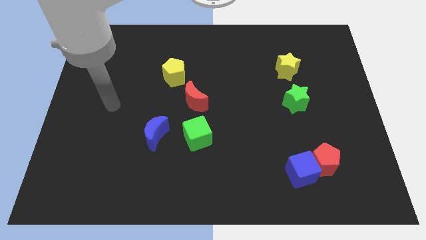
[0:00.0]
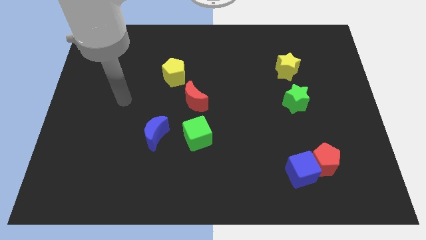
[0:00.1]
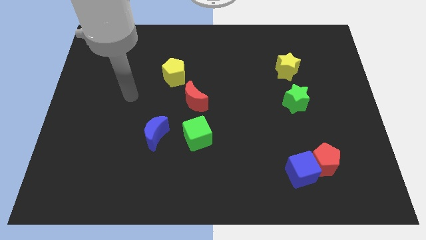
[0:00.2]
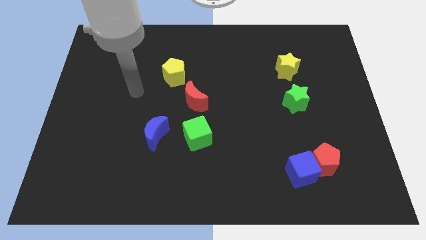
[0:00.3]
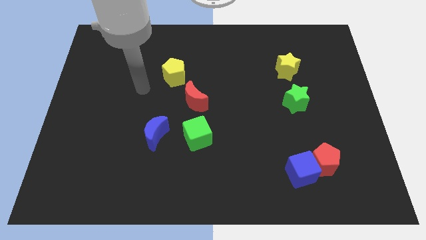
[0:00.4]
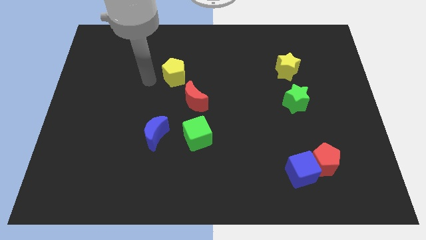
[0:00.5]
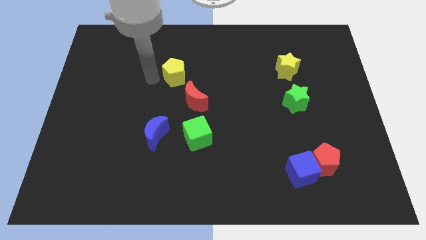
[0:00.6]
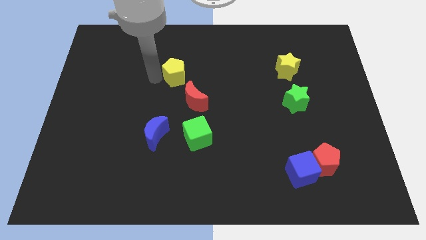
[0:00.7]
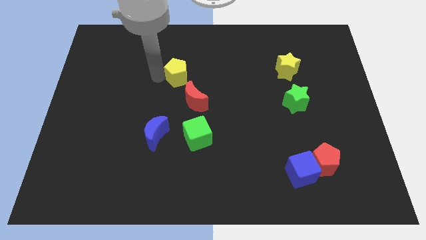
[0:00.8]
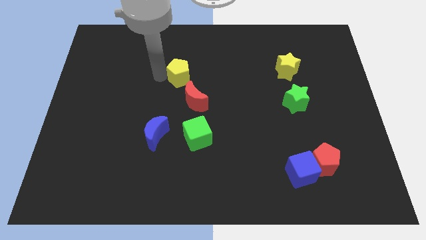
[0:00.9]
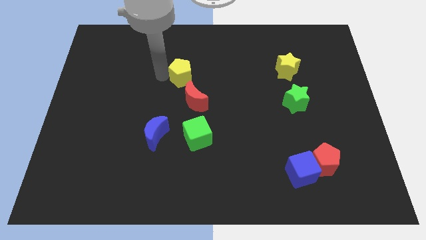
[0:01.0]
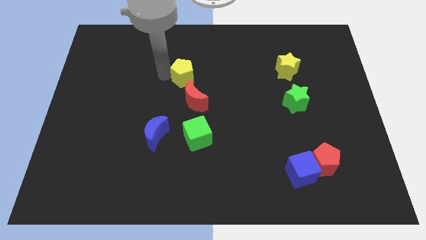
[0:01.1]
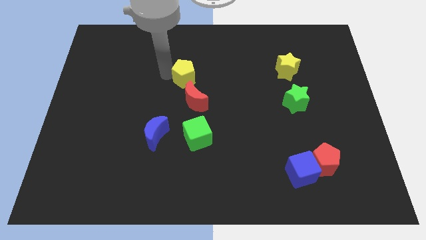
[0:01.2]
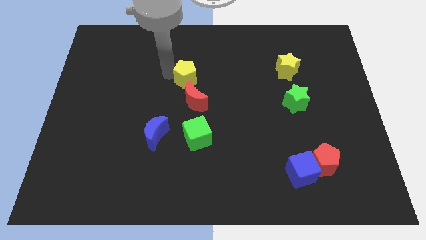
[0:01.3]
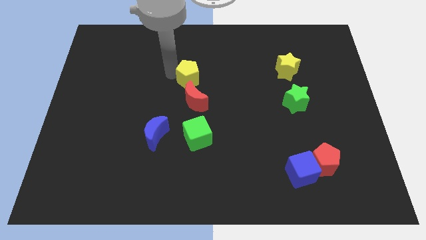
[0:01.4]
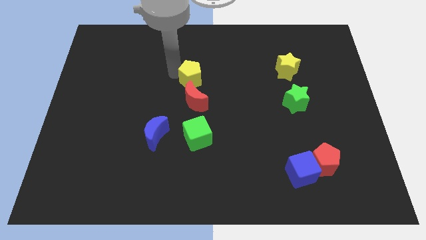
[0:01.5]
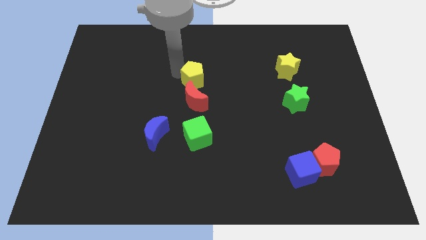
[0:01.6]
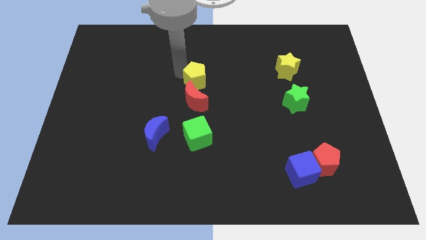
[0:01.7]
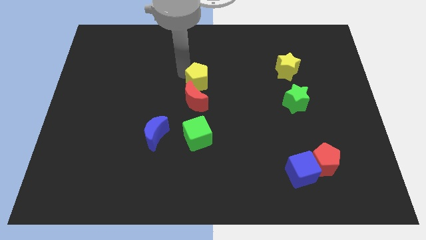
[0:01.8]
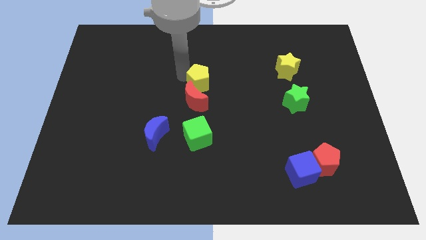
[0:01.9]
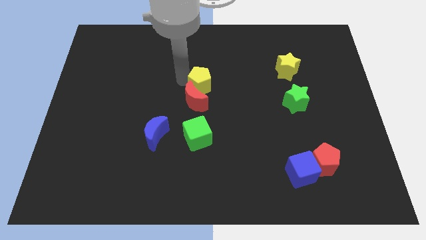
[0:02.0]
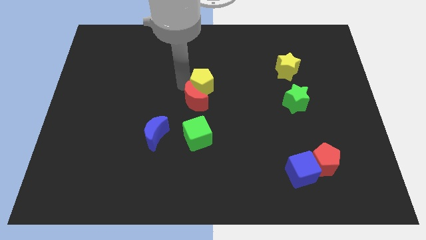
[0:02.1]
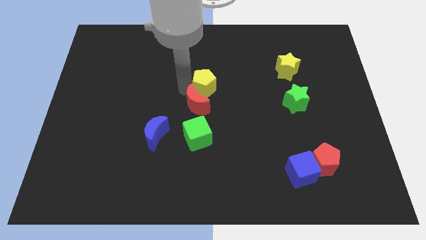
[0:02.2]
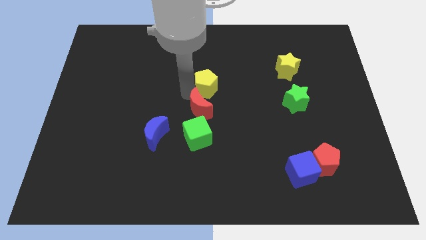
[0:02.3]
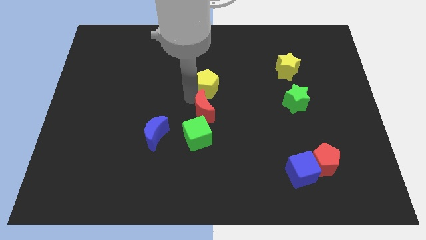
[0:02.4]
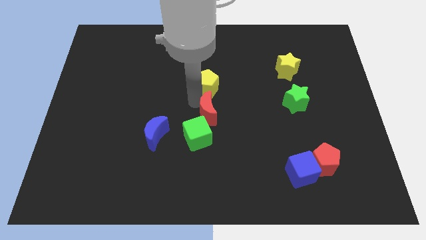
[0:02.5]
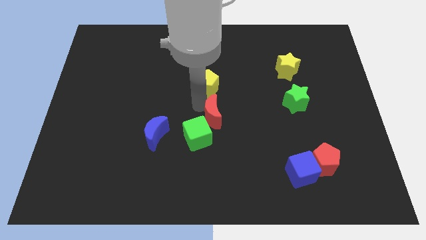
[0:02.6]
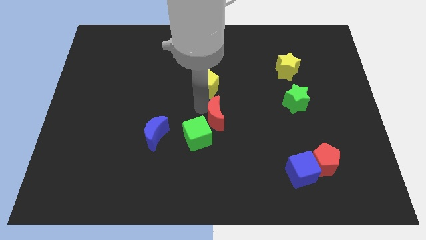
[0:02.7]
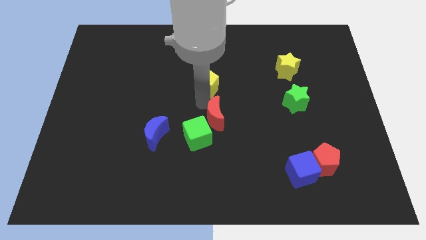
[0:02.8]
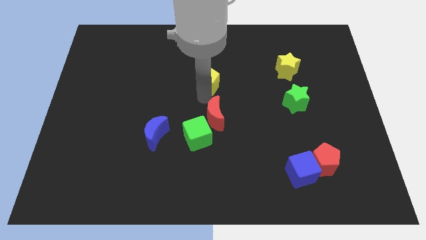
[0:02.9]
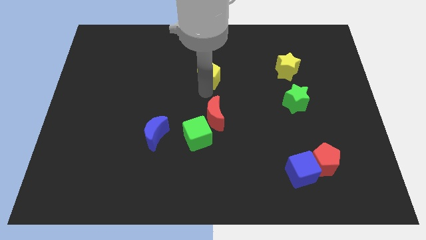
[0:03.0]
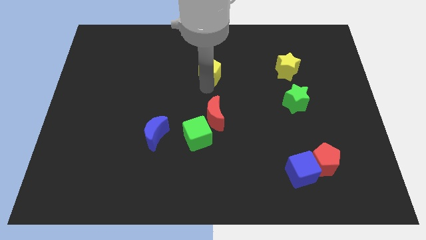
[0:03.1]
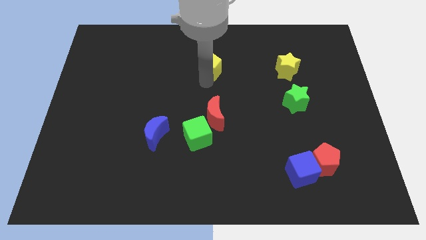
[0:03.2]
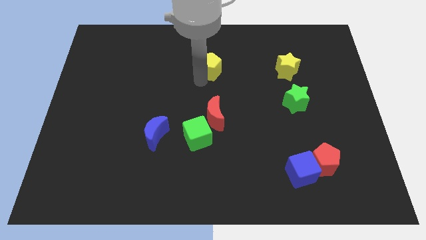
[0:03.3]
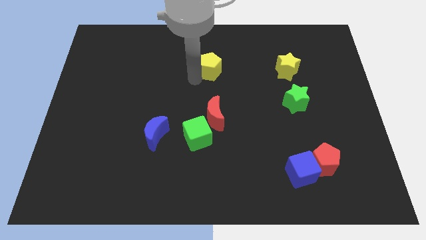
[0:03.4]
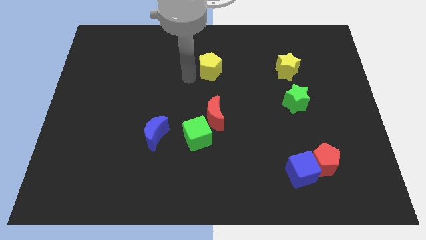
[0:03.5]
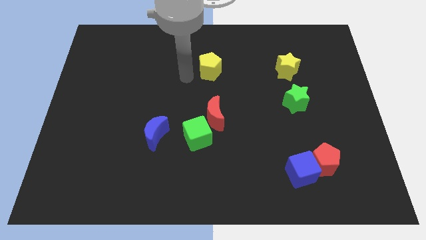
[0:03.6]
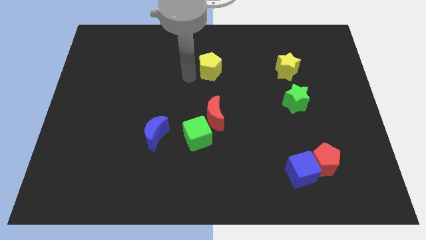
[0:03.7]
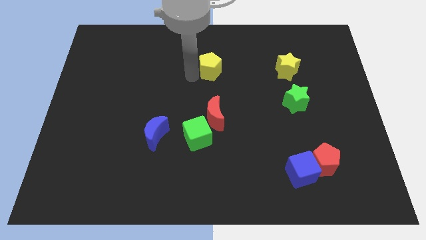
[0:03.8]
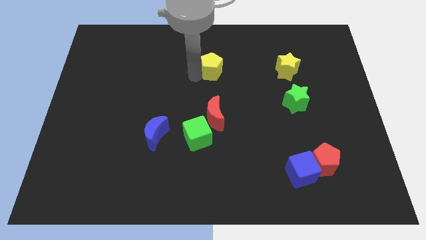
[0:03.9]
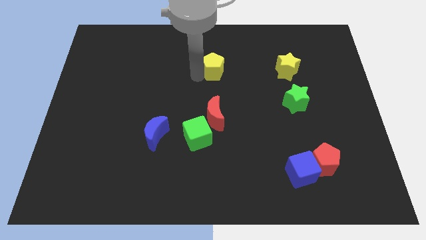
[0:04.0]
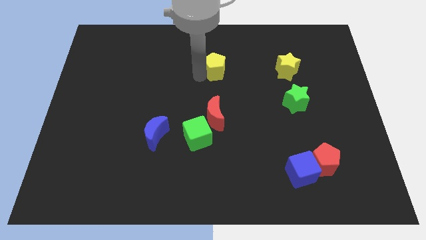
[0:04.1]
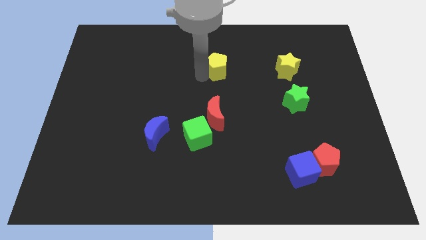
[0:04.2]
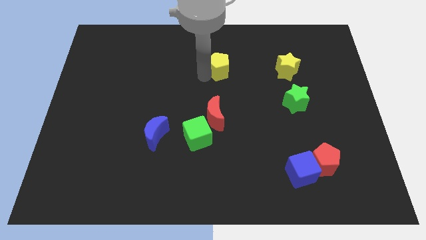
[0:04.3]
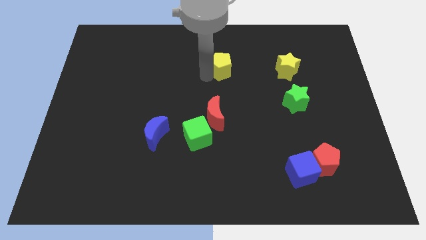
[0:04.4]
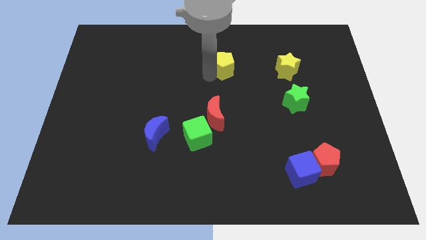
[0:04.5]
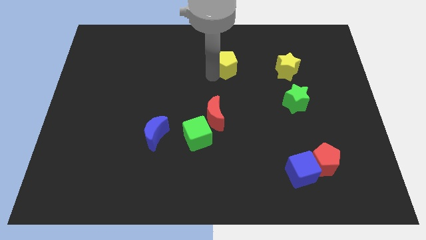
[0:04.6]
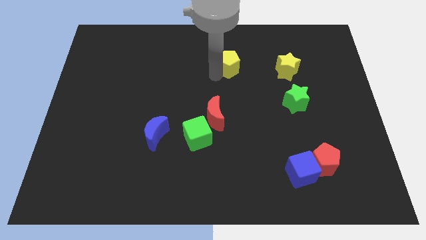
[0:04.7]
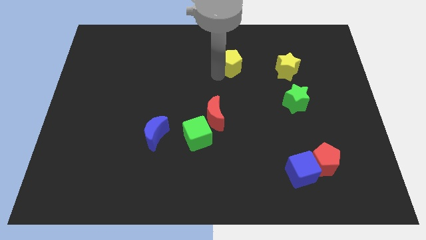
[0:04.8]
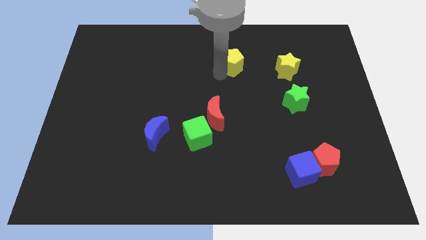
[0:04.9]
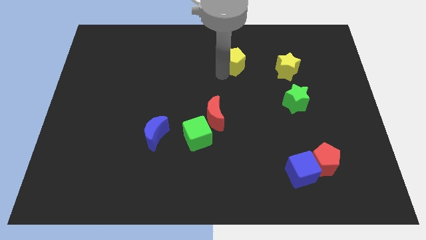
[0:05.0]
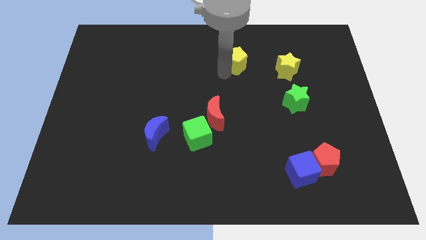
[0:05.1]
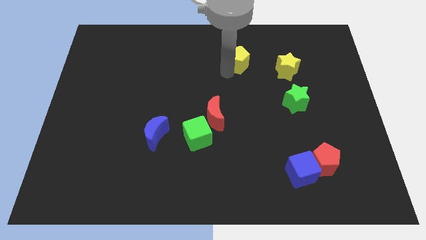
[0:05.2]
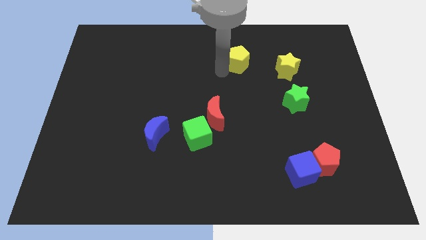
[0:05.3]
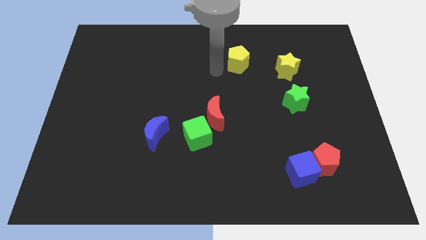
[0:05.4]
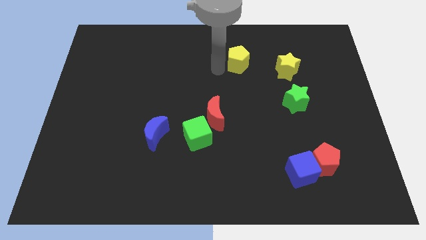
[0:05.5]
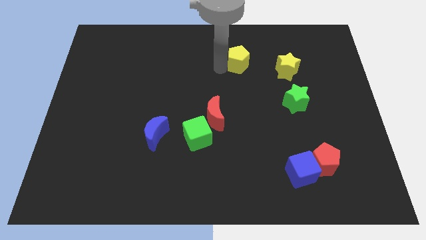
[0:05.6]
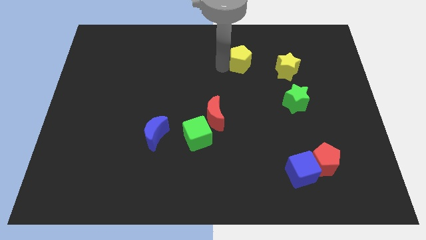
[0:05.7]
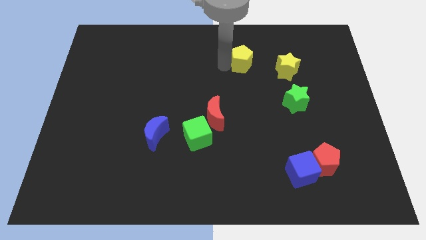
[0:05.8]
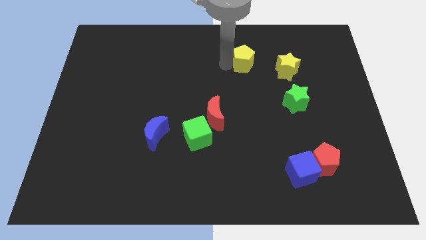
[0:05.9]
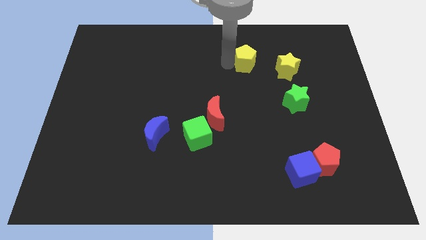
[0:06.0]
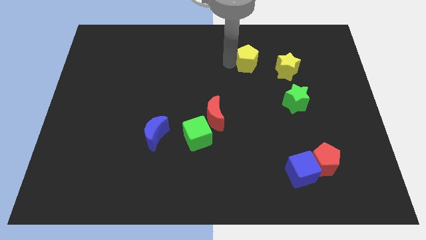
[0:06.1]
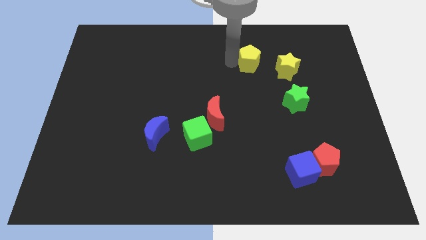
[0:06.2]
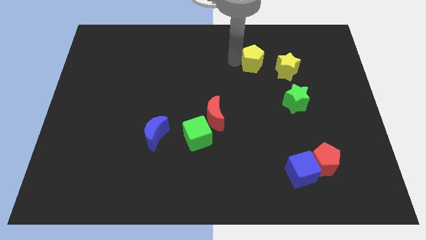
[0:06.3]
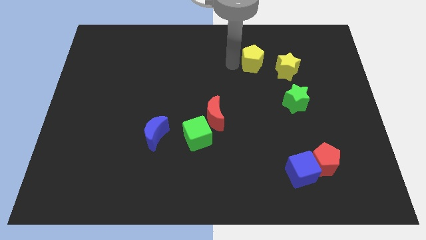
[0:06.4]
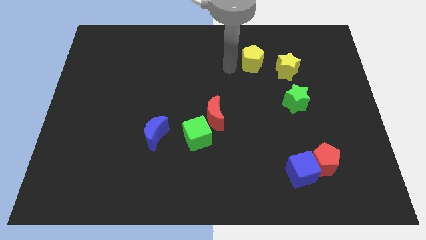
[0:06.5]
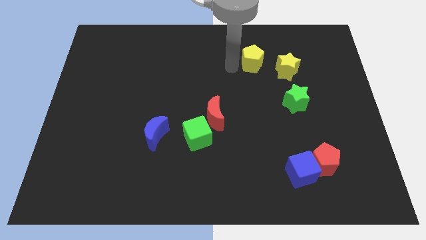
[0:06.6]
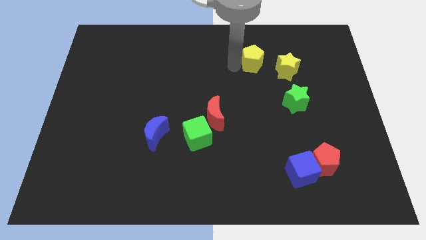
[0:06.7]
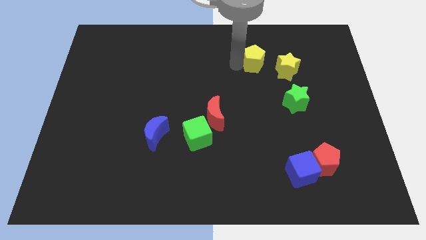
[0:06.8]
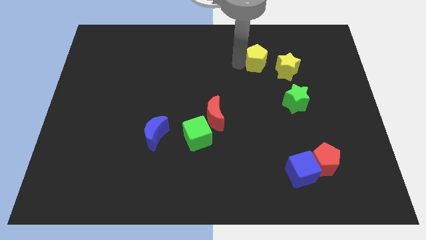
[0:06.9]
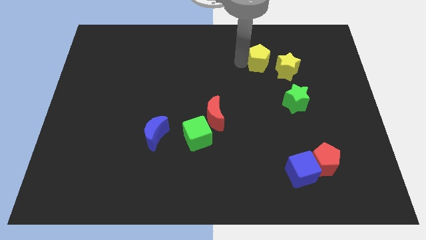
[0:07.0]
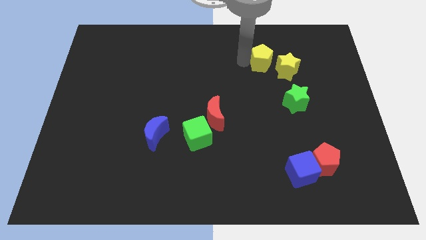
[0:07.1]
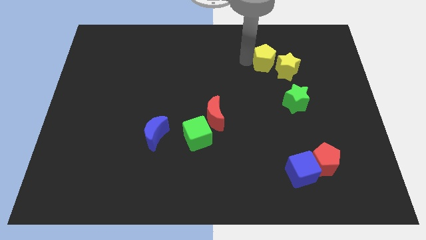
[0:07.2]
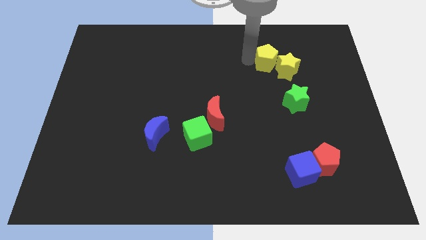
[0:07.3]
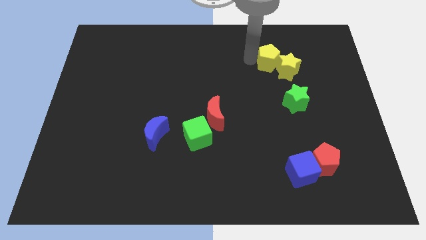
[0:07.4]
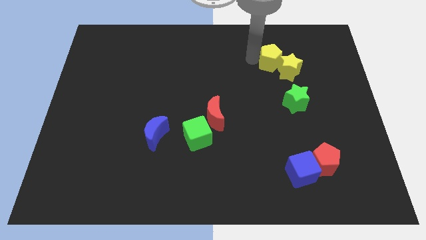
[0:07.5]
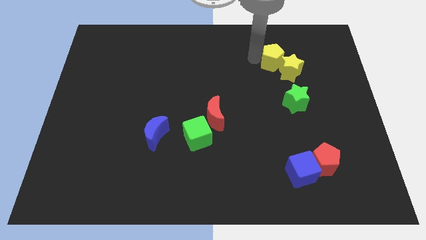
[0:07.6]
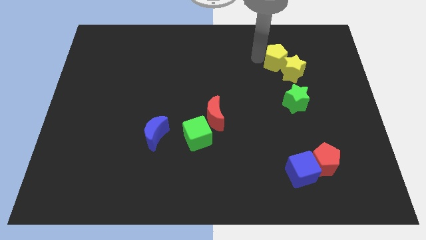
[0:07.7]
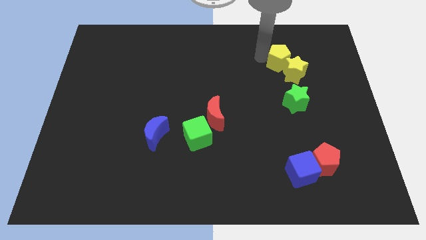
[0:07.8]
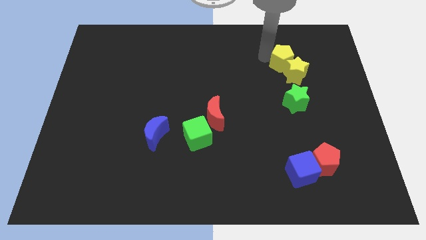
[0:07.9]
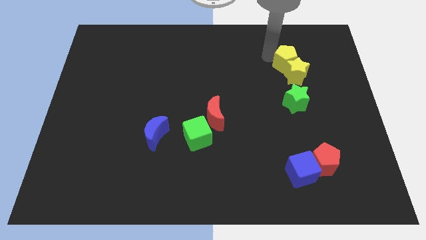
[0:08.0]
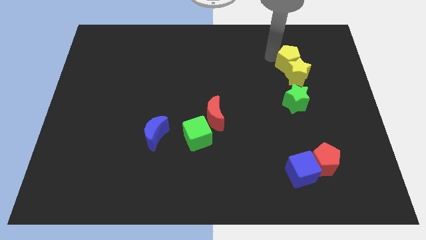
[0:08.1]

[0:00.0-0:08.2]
move the yellow pentagon to the top right of the yellow star
